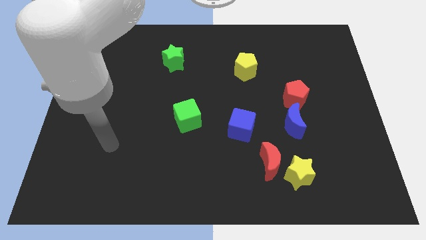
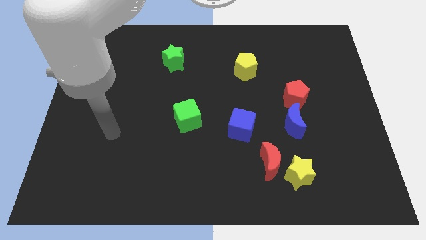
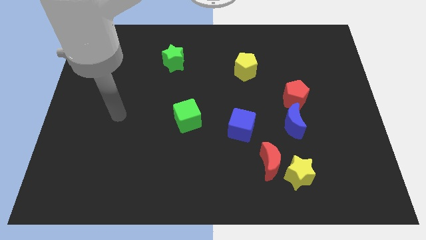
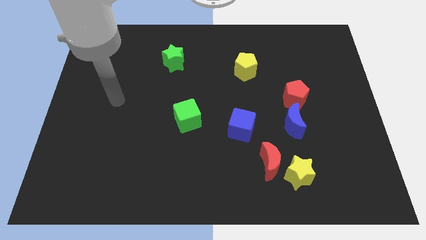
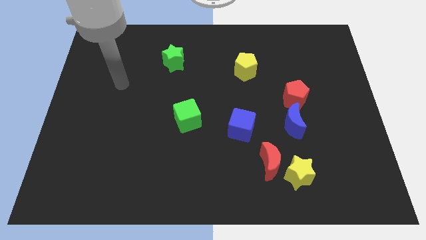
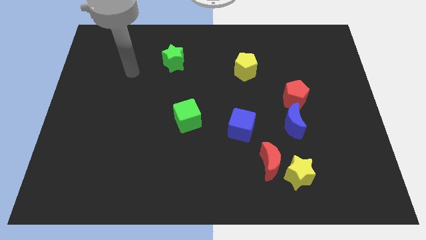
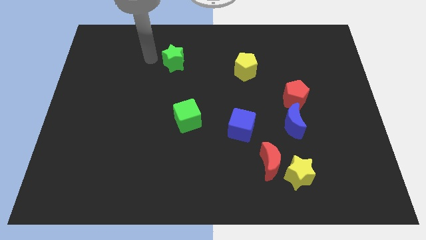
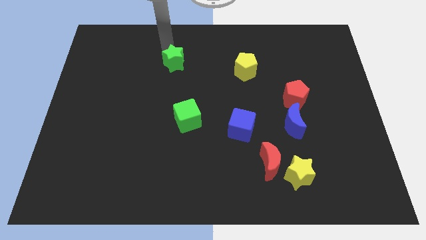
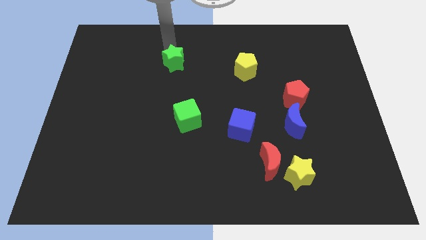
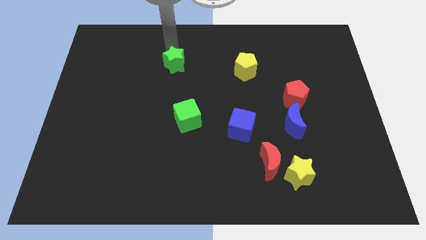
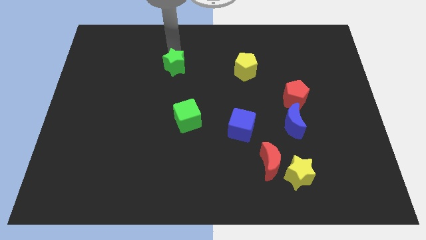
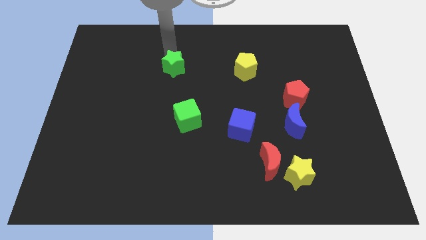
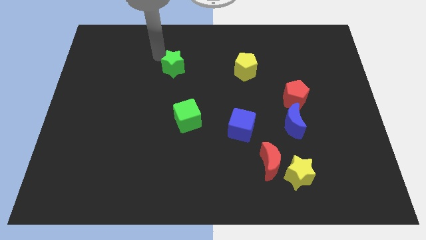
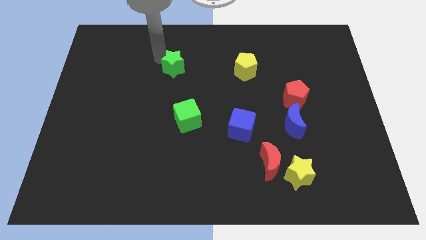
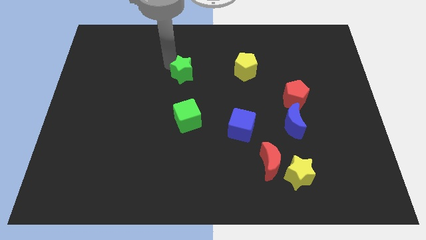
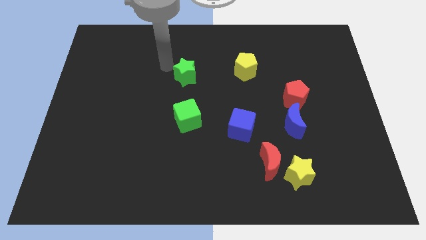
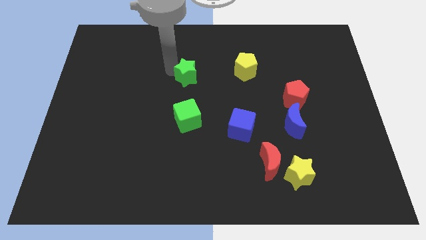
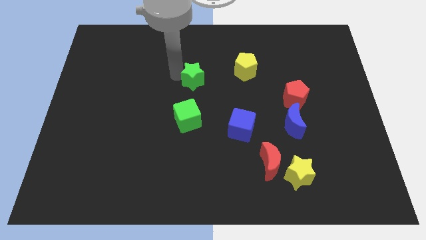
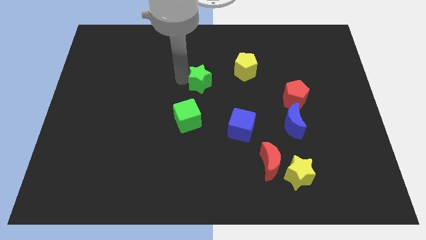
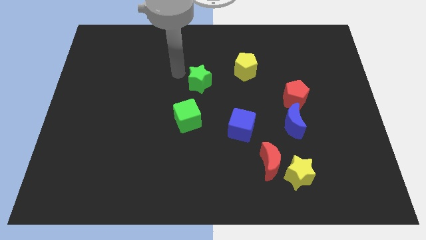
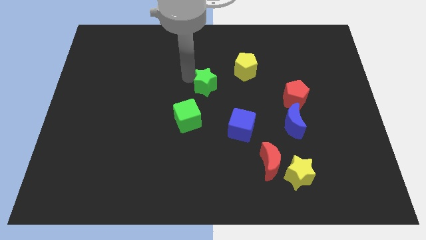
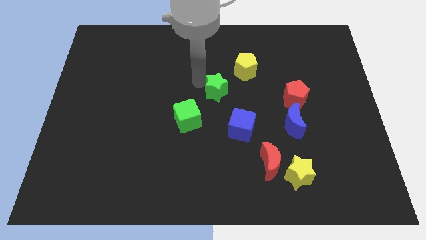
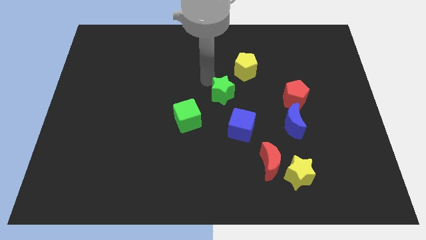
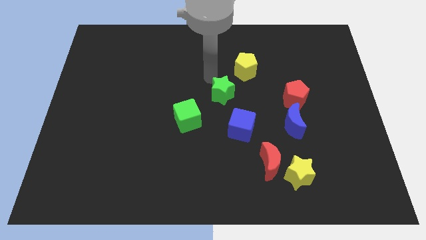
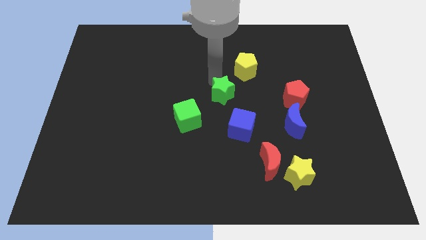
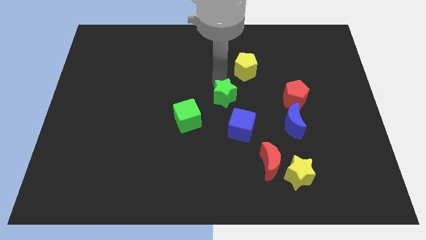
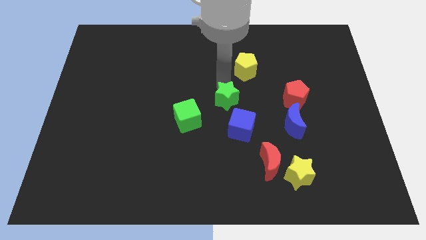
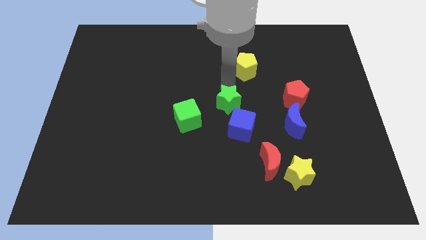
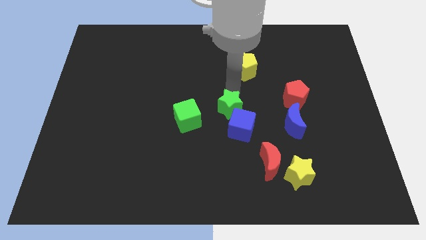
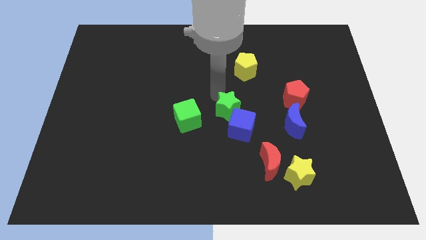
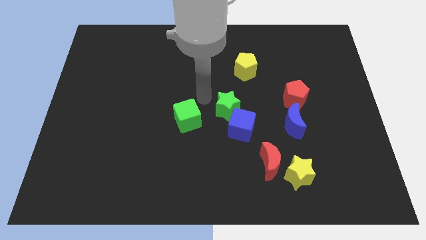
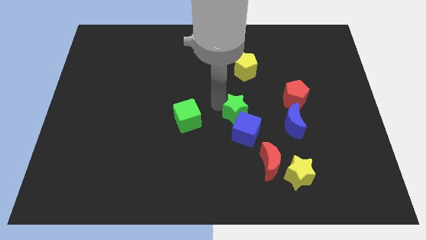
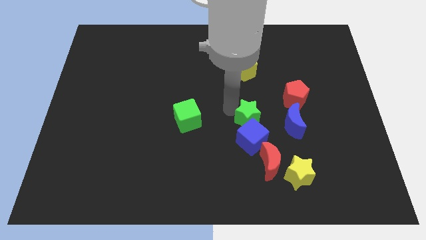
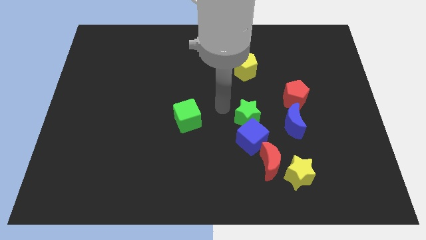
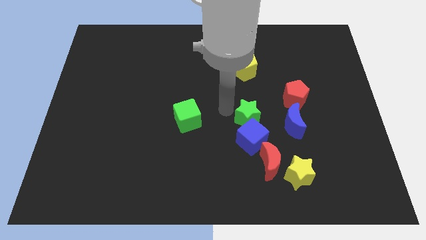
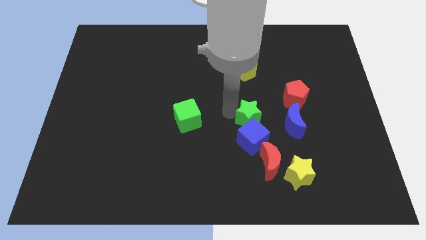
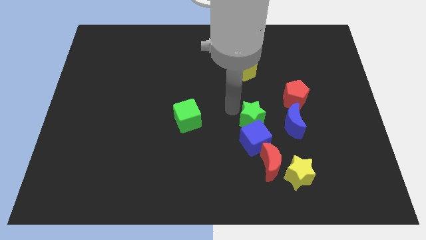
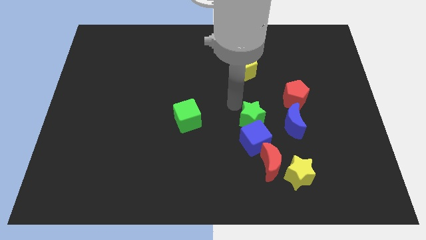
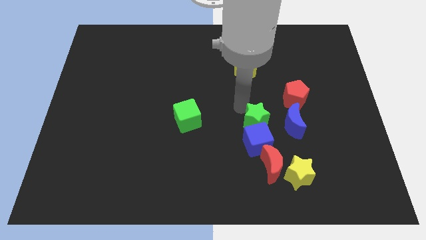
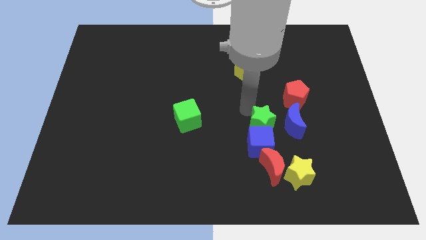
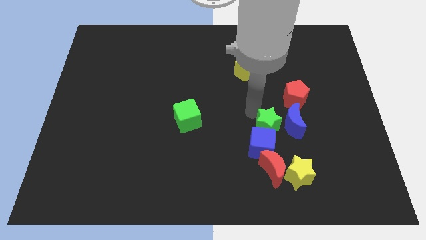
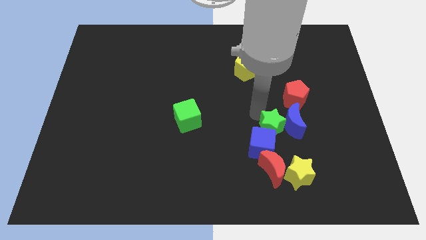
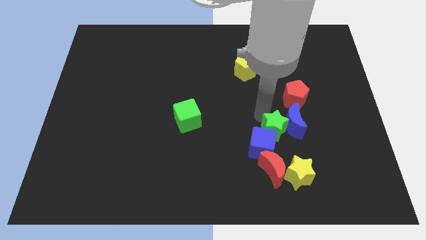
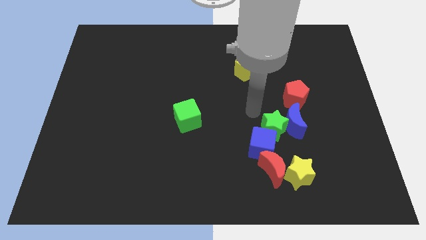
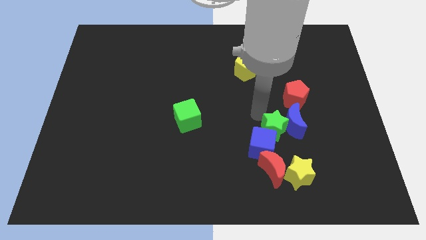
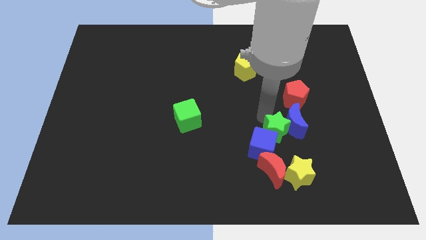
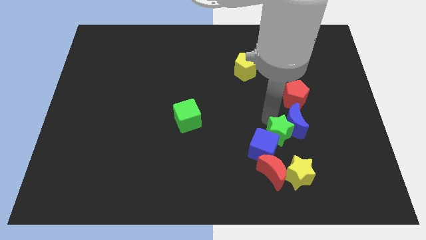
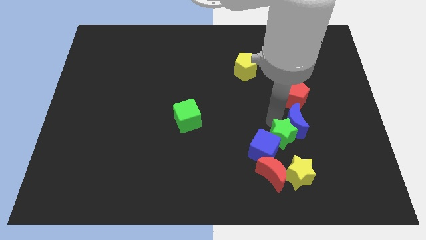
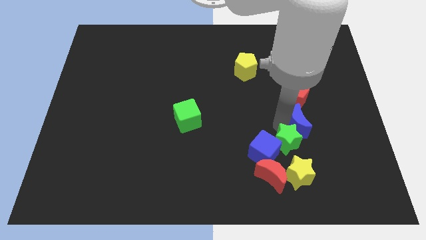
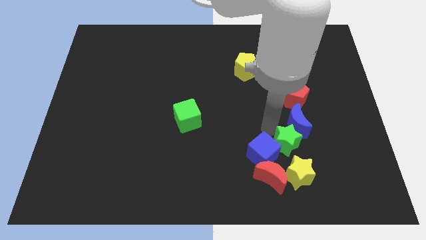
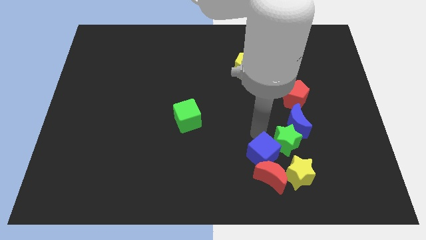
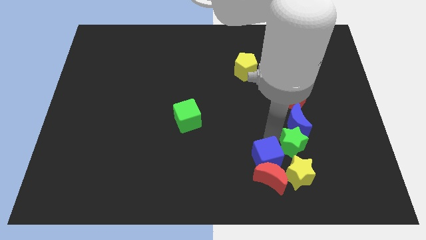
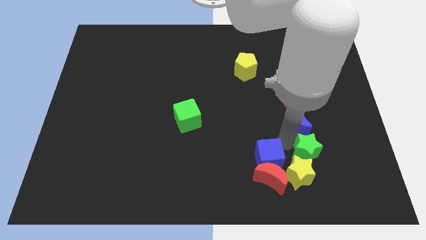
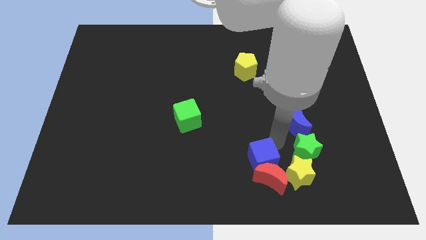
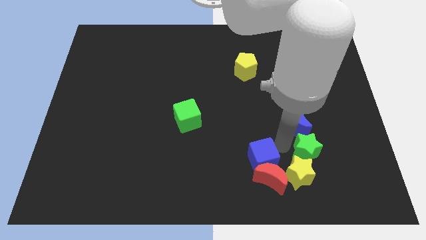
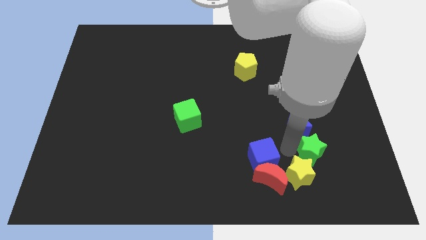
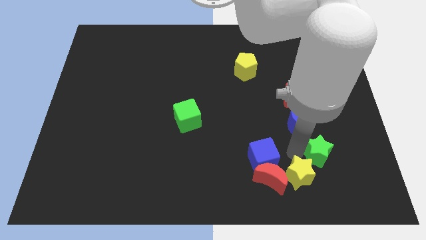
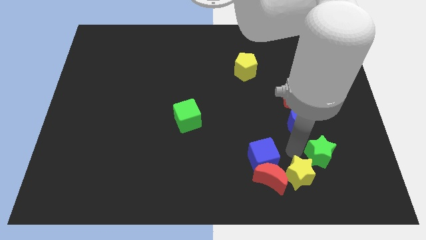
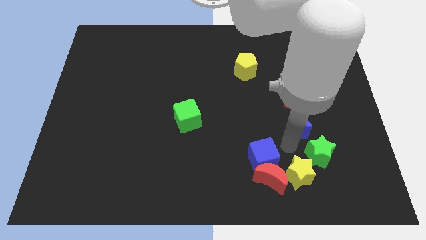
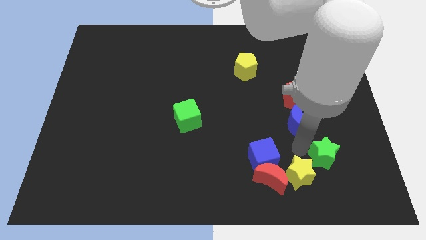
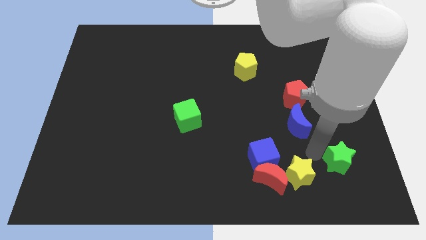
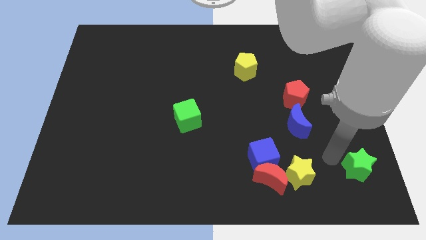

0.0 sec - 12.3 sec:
push the green star to the lower right corner

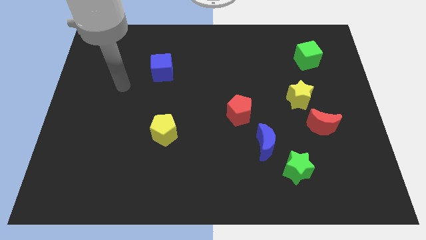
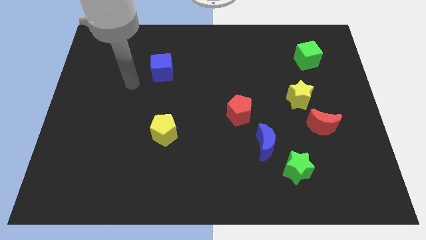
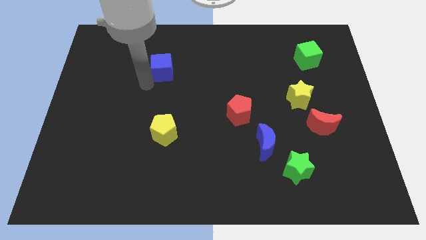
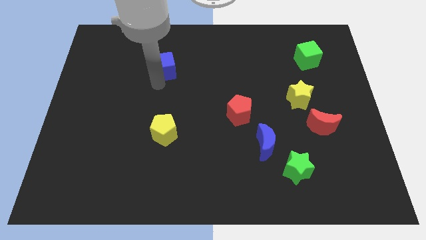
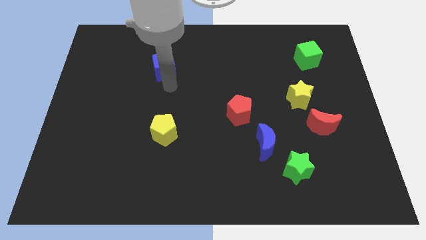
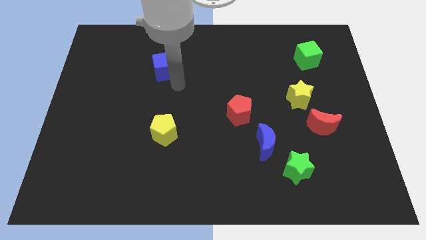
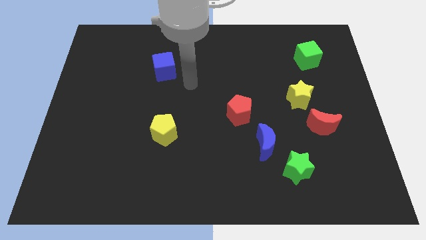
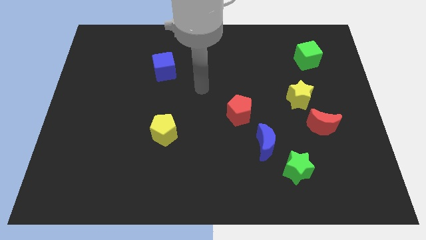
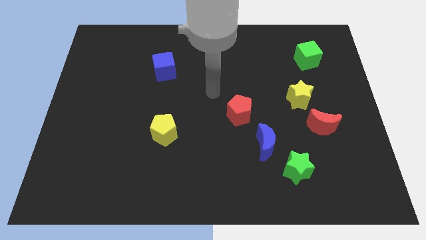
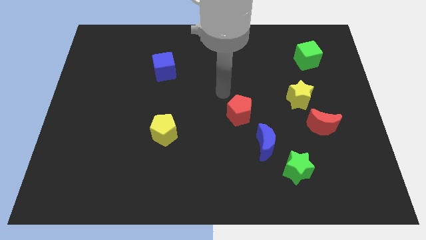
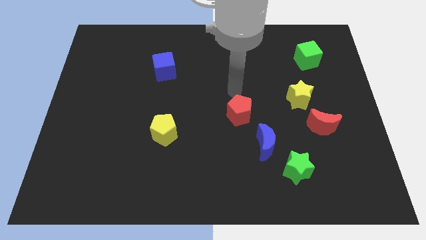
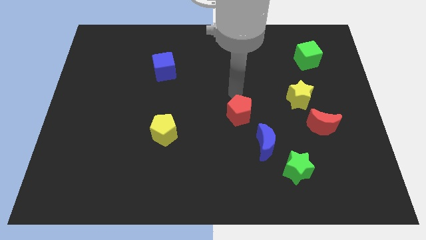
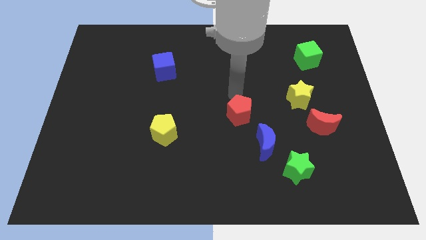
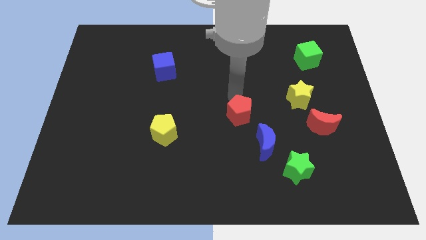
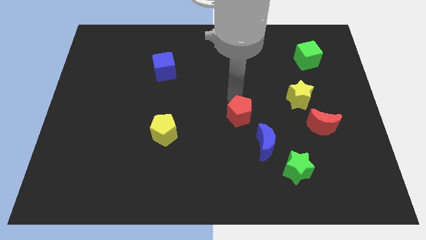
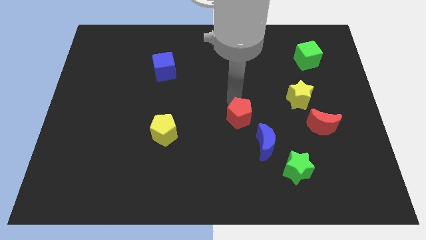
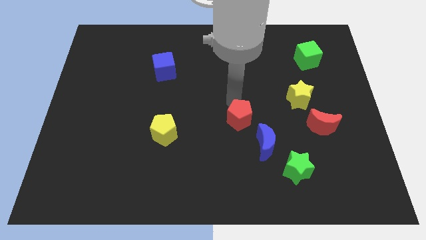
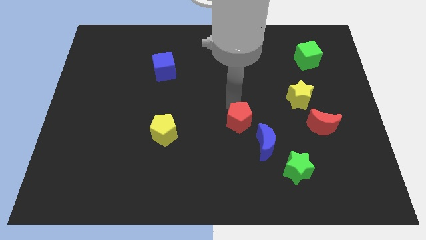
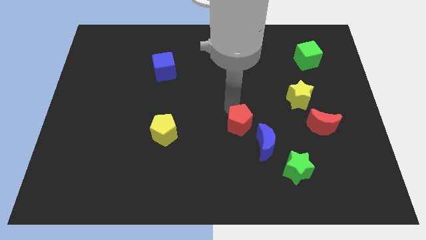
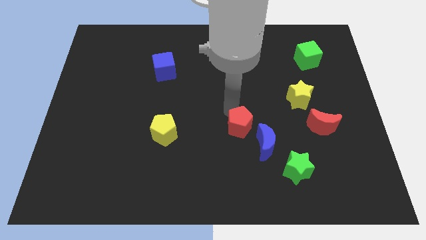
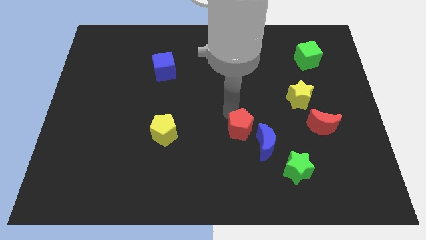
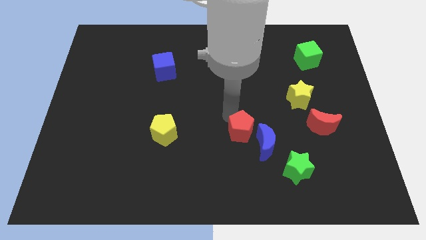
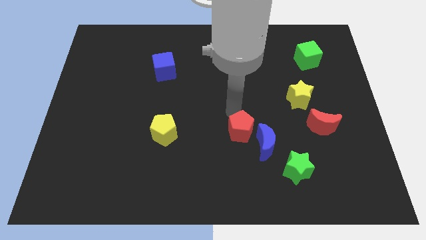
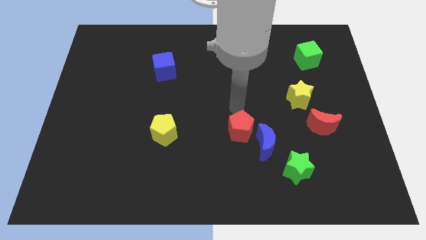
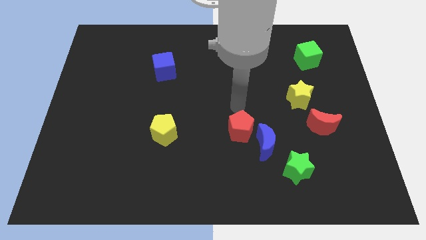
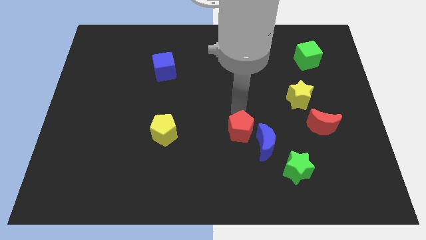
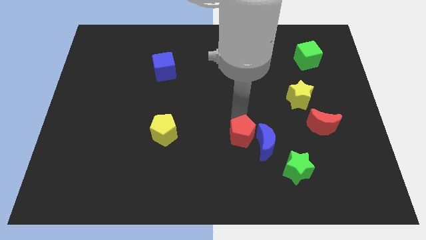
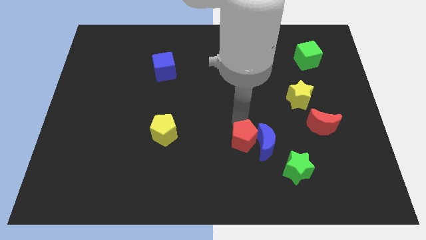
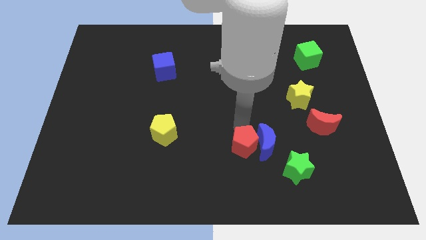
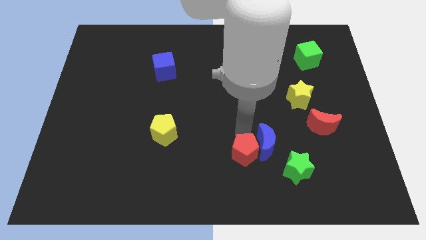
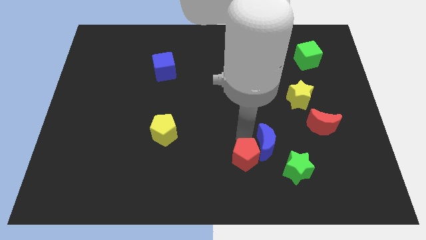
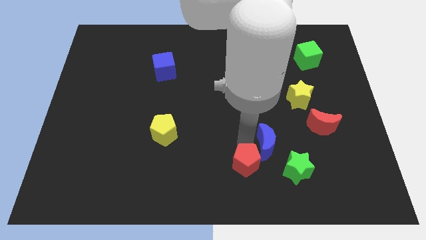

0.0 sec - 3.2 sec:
push the red pentagon to the bottom side
